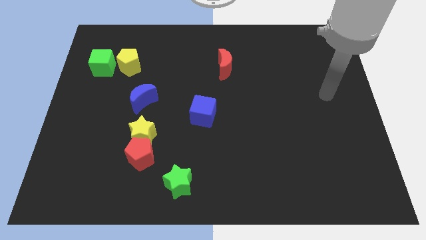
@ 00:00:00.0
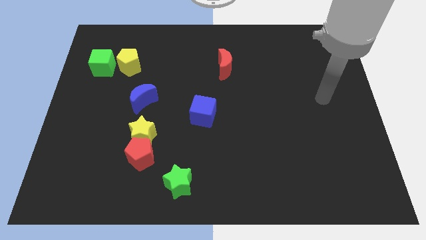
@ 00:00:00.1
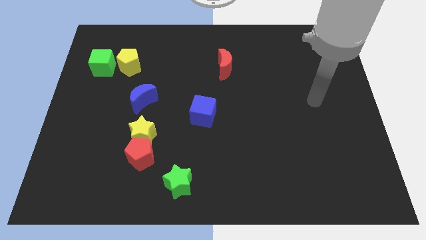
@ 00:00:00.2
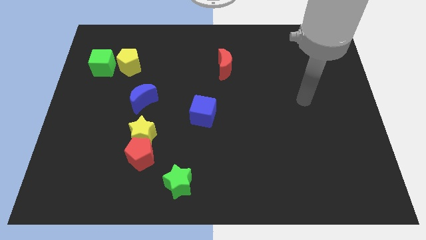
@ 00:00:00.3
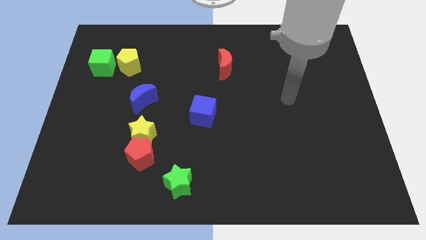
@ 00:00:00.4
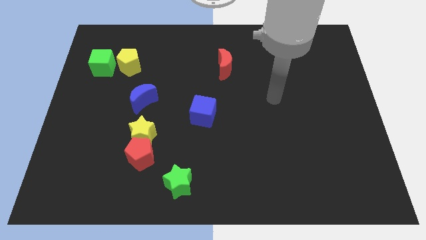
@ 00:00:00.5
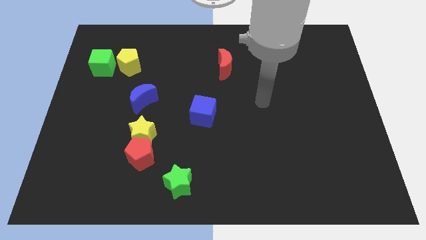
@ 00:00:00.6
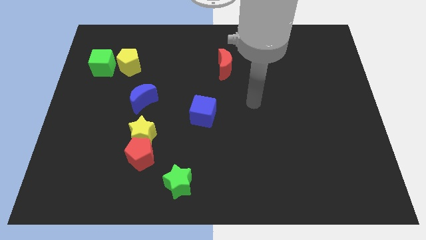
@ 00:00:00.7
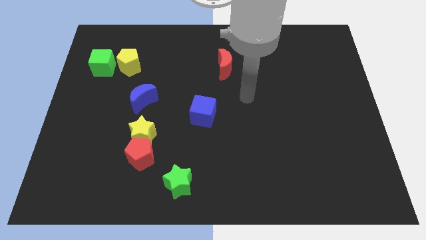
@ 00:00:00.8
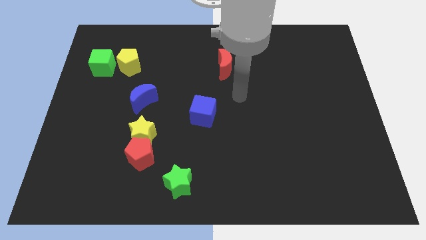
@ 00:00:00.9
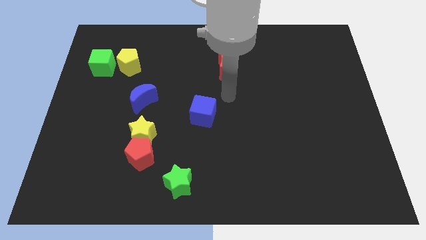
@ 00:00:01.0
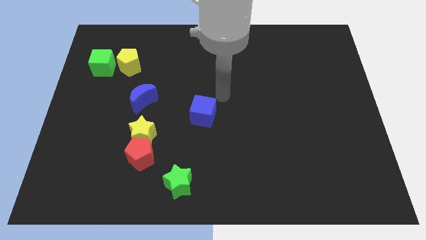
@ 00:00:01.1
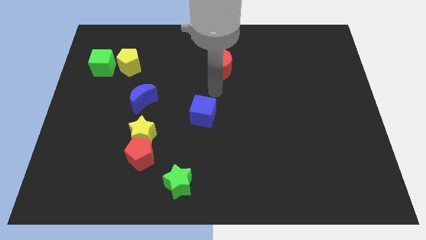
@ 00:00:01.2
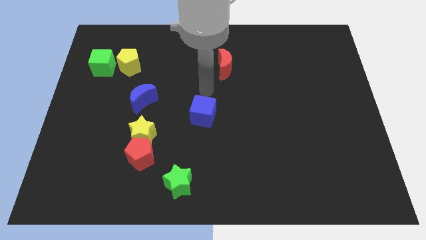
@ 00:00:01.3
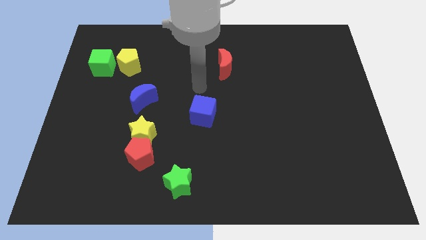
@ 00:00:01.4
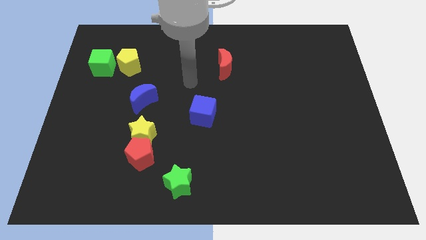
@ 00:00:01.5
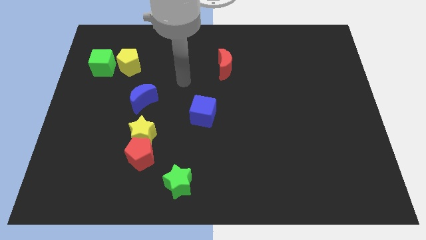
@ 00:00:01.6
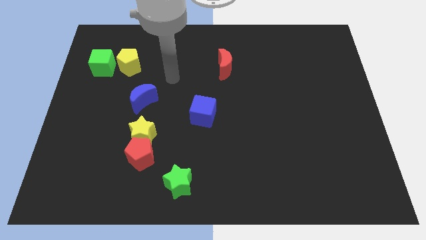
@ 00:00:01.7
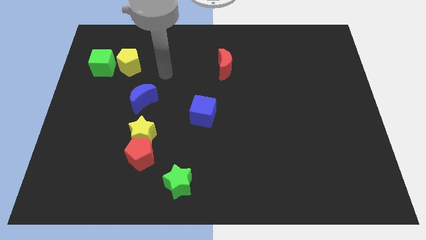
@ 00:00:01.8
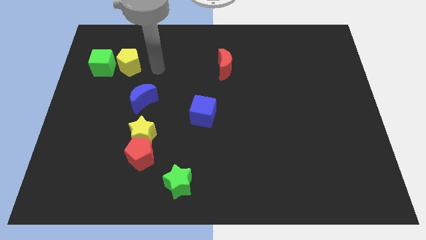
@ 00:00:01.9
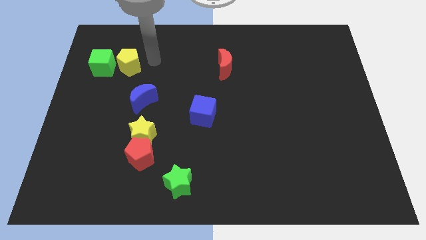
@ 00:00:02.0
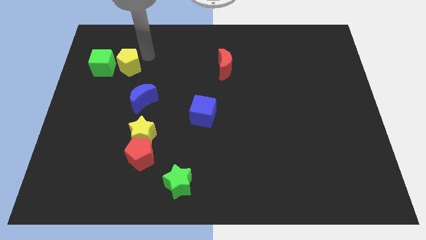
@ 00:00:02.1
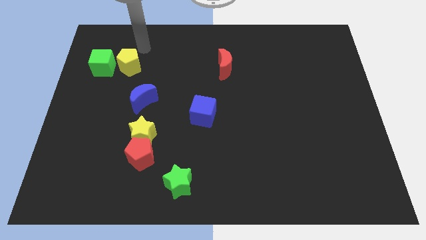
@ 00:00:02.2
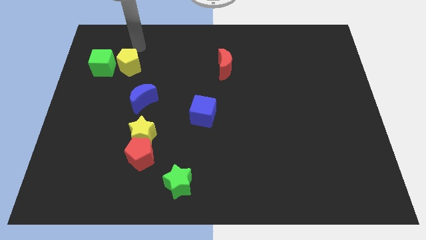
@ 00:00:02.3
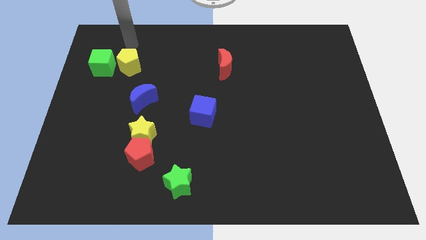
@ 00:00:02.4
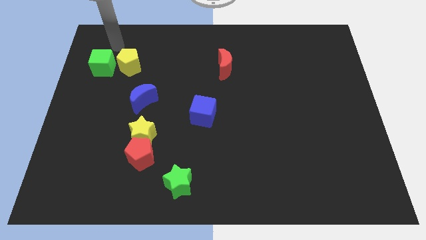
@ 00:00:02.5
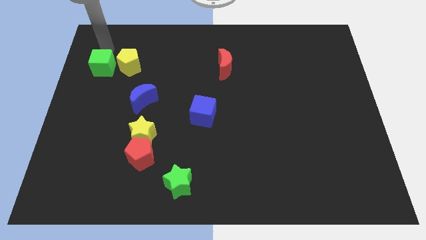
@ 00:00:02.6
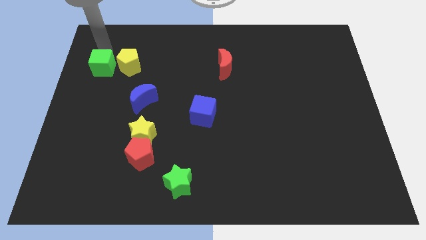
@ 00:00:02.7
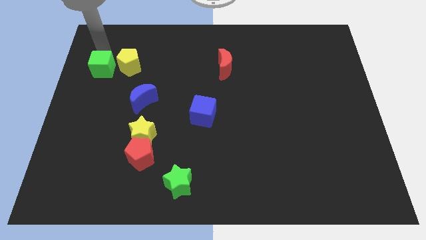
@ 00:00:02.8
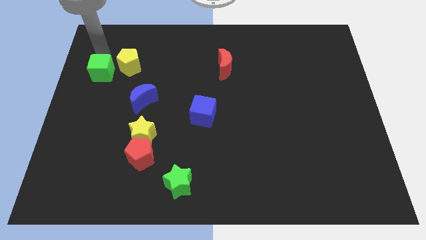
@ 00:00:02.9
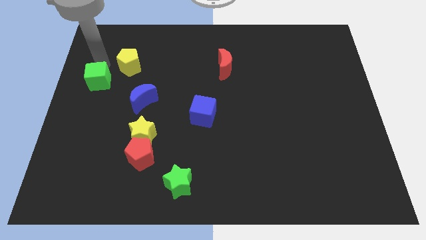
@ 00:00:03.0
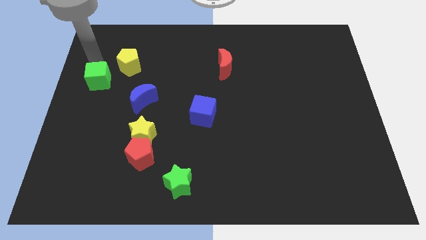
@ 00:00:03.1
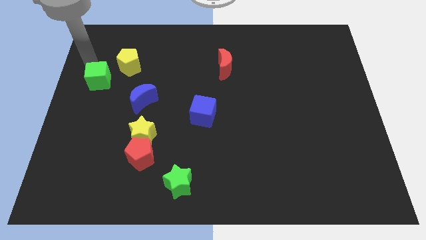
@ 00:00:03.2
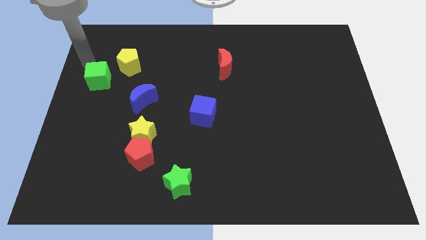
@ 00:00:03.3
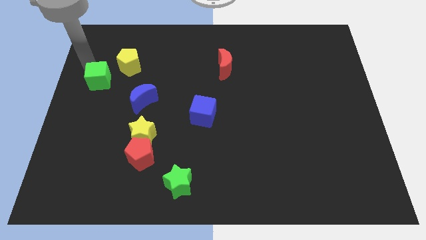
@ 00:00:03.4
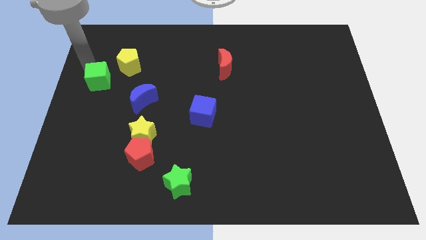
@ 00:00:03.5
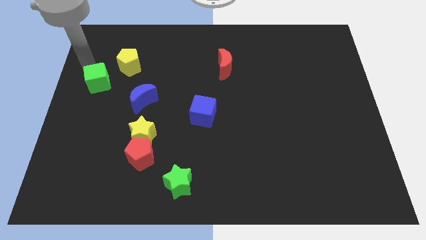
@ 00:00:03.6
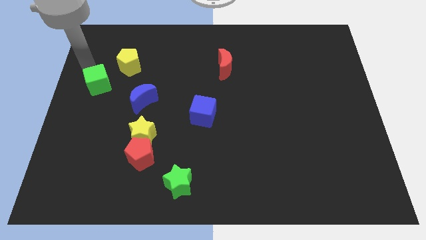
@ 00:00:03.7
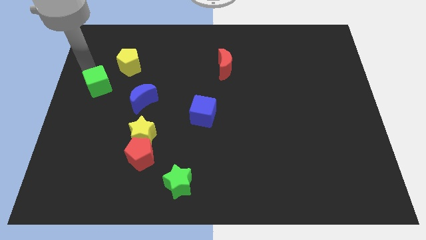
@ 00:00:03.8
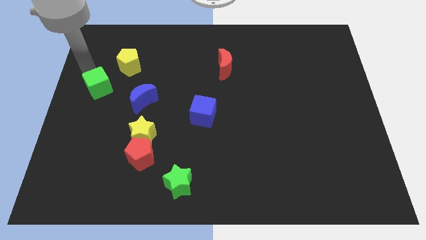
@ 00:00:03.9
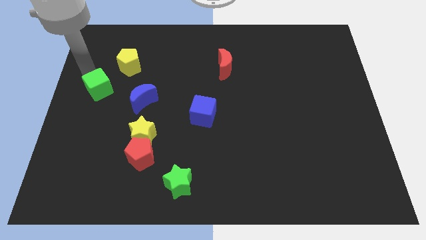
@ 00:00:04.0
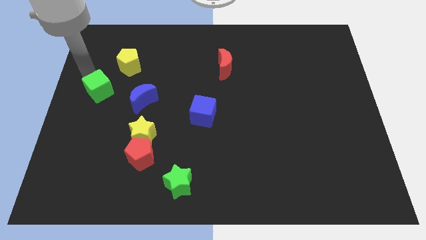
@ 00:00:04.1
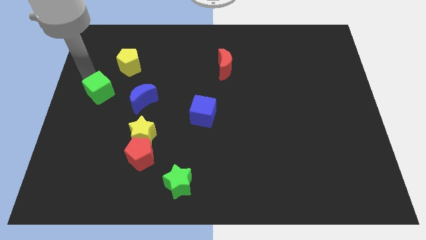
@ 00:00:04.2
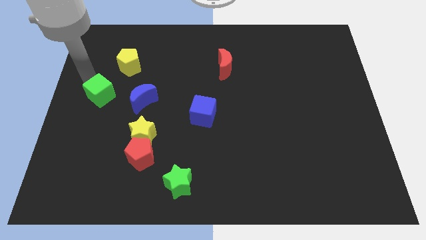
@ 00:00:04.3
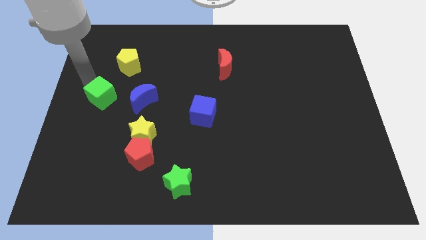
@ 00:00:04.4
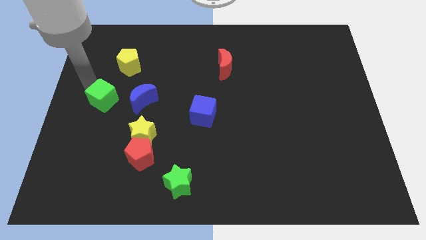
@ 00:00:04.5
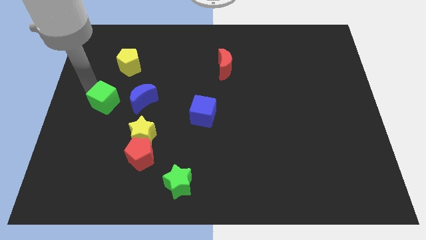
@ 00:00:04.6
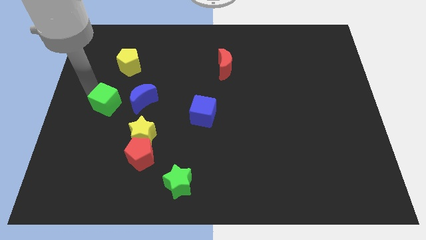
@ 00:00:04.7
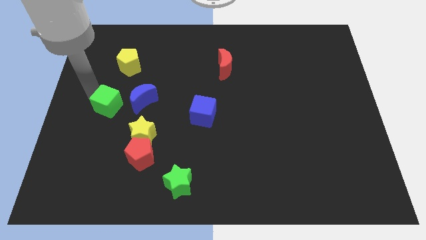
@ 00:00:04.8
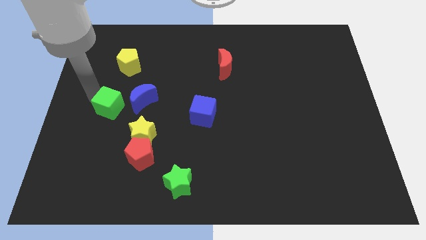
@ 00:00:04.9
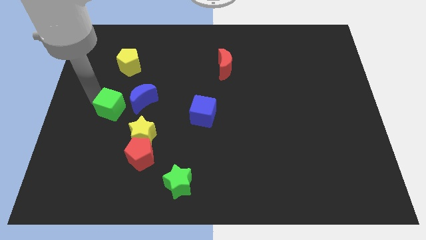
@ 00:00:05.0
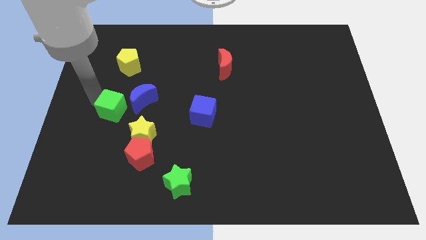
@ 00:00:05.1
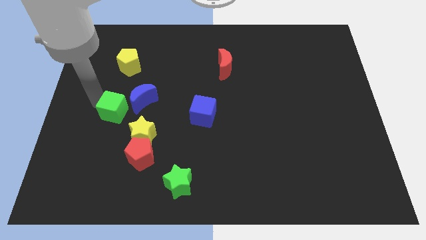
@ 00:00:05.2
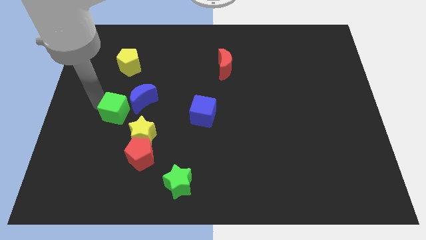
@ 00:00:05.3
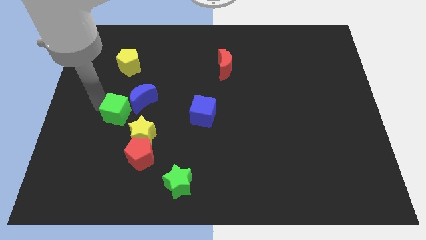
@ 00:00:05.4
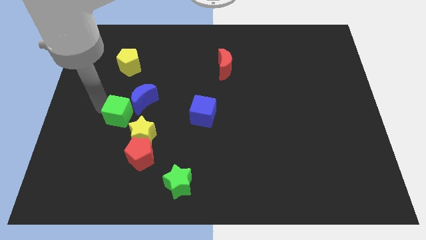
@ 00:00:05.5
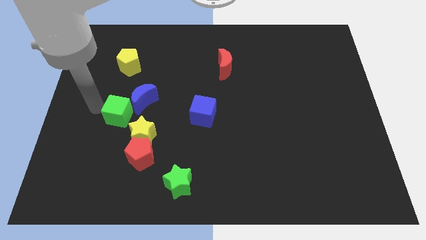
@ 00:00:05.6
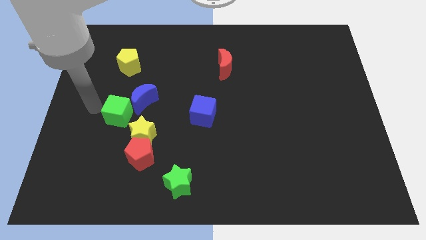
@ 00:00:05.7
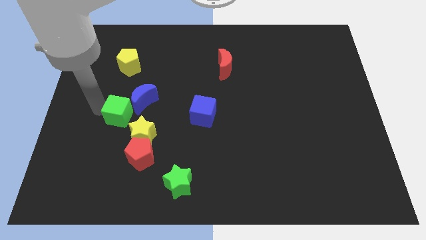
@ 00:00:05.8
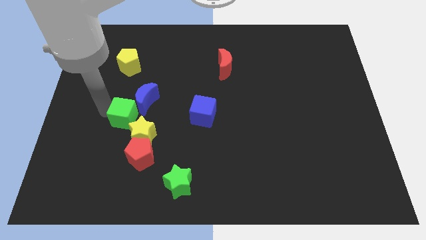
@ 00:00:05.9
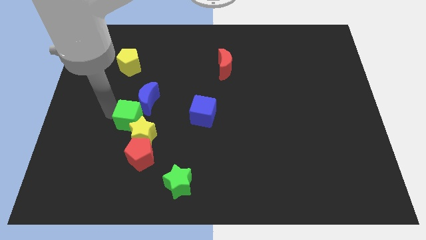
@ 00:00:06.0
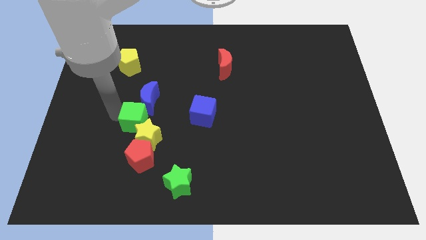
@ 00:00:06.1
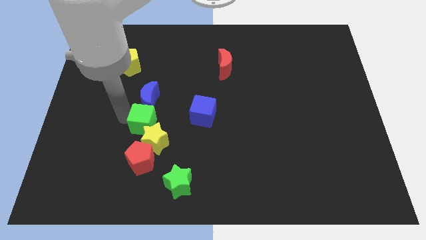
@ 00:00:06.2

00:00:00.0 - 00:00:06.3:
move the green cube downwards and then right

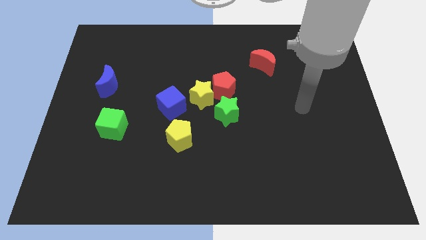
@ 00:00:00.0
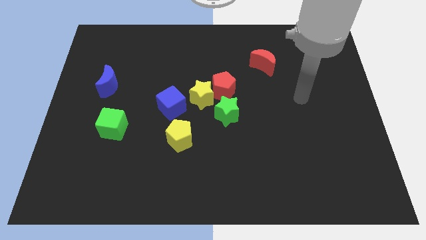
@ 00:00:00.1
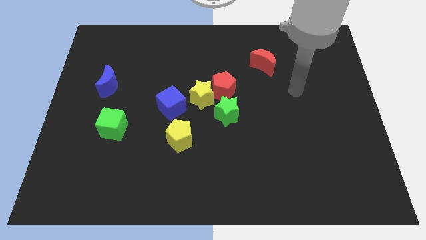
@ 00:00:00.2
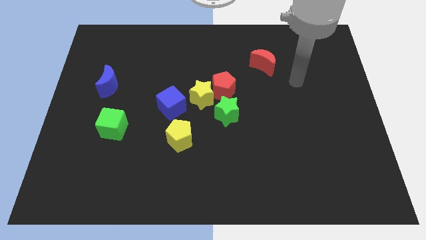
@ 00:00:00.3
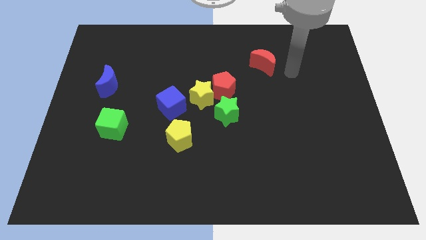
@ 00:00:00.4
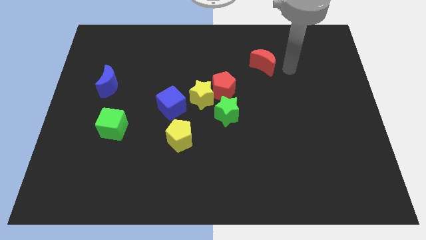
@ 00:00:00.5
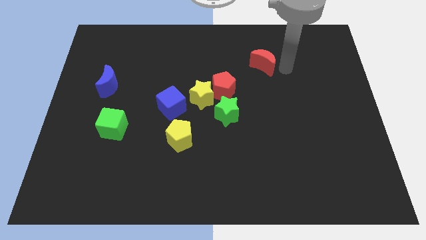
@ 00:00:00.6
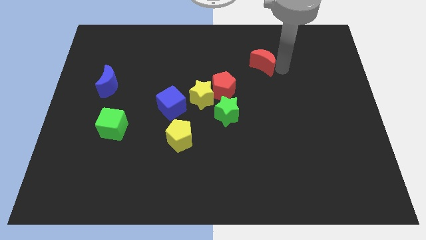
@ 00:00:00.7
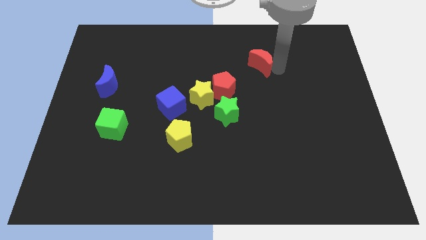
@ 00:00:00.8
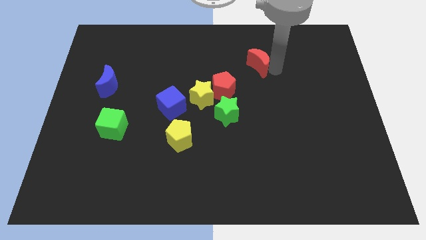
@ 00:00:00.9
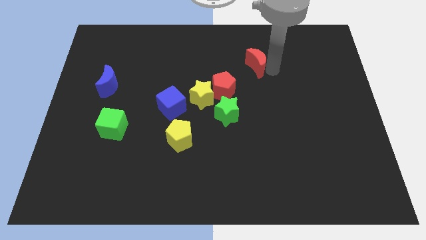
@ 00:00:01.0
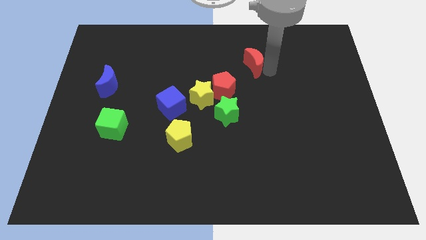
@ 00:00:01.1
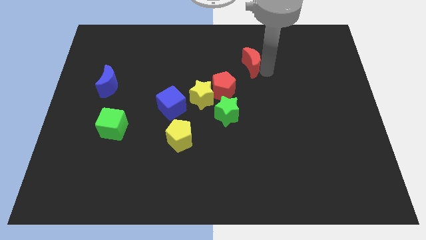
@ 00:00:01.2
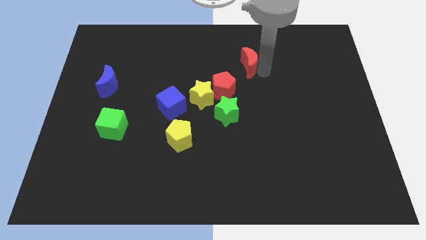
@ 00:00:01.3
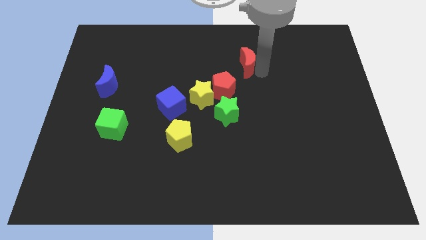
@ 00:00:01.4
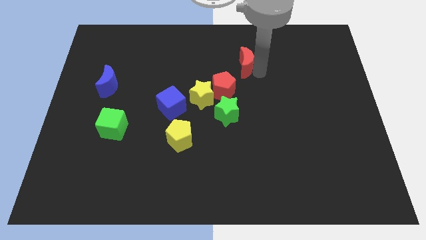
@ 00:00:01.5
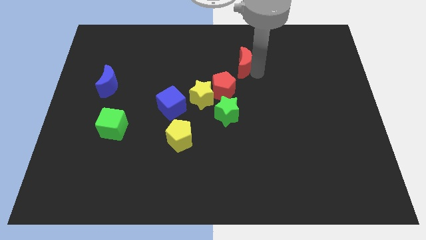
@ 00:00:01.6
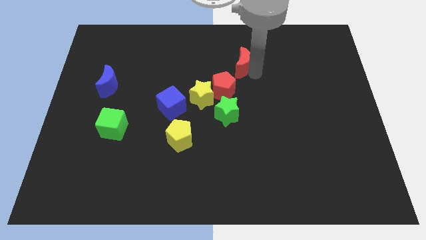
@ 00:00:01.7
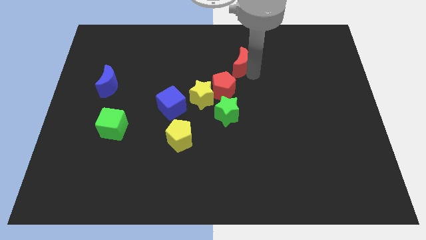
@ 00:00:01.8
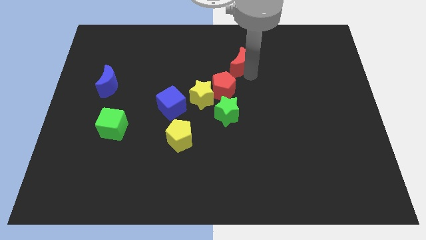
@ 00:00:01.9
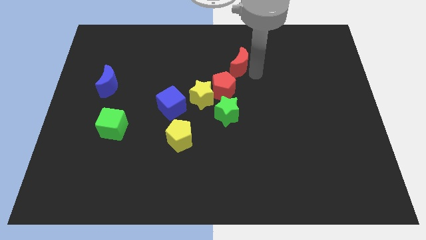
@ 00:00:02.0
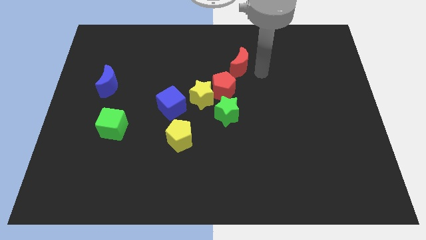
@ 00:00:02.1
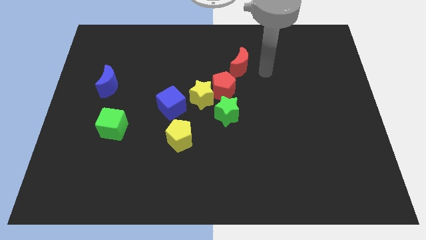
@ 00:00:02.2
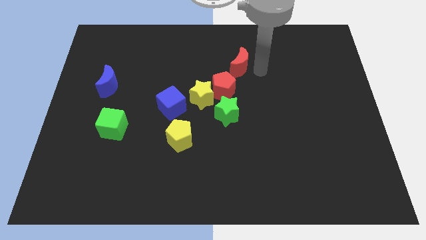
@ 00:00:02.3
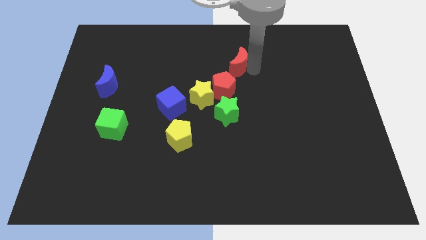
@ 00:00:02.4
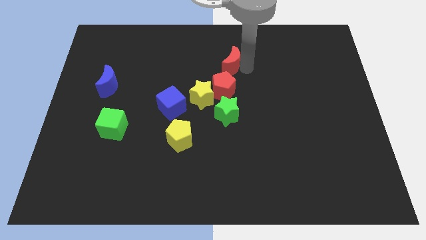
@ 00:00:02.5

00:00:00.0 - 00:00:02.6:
push the red moon somewhat to the left
